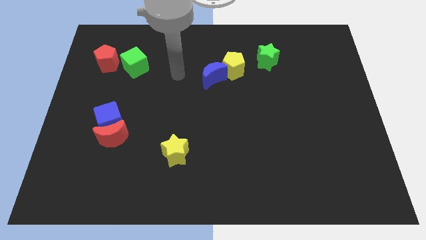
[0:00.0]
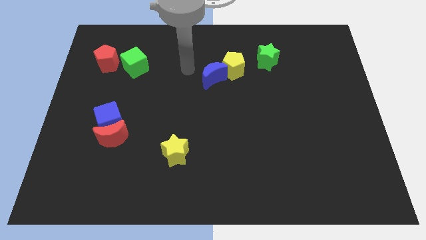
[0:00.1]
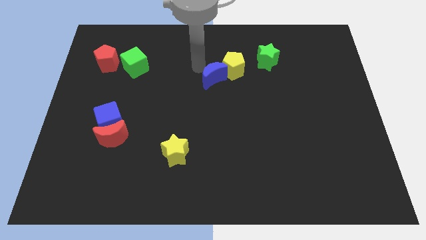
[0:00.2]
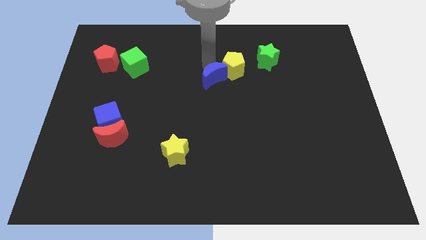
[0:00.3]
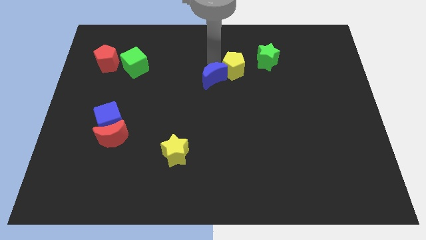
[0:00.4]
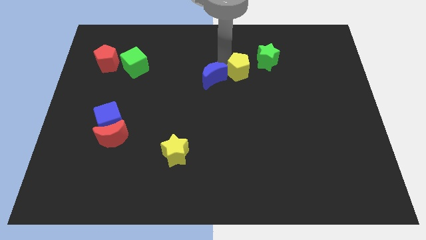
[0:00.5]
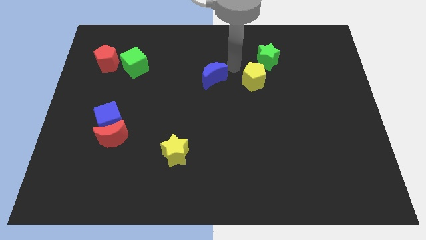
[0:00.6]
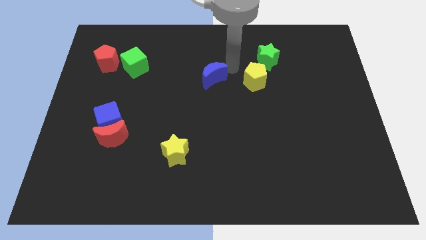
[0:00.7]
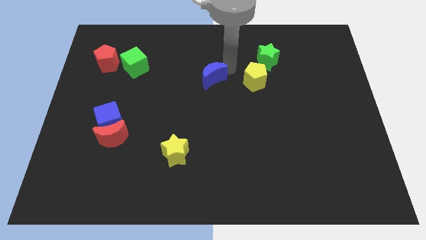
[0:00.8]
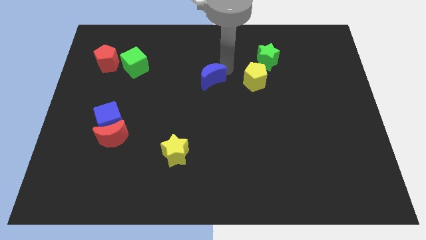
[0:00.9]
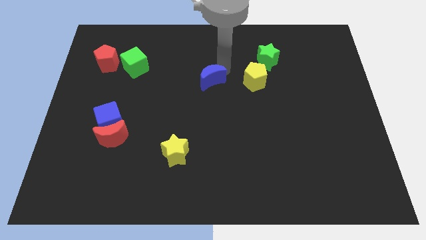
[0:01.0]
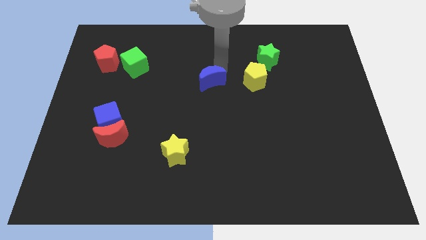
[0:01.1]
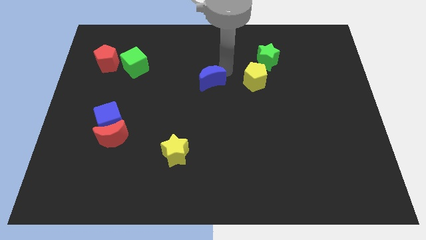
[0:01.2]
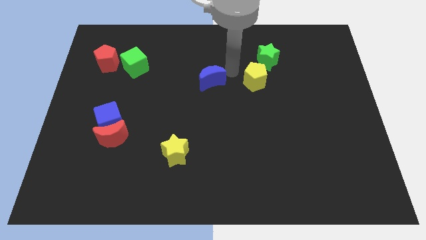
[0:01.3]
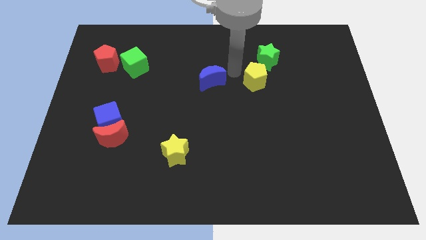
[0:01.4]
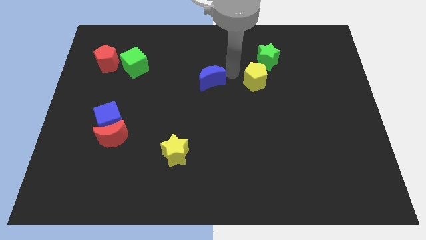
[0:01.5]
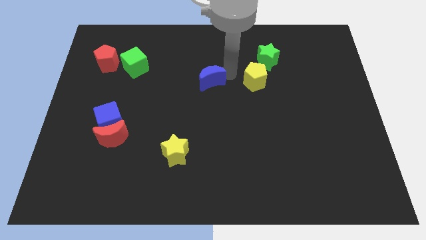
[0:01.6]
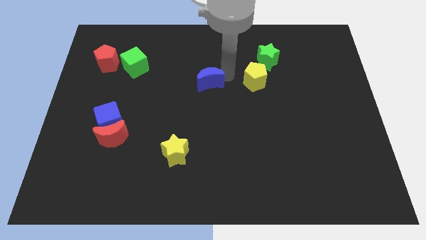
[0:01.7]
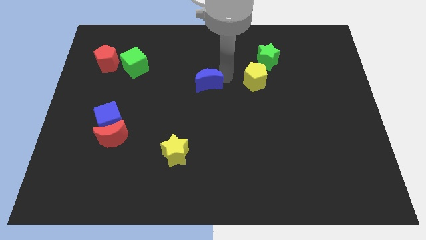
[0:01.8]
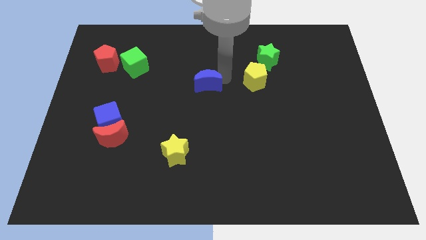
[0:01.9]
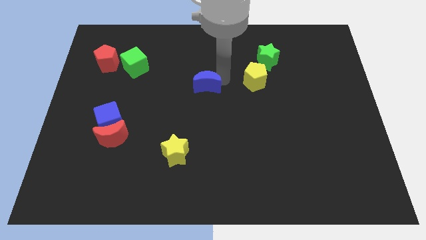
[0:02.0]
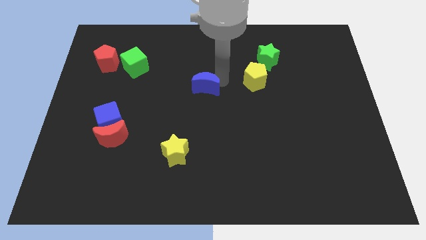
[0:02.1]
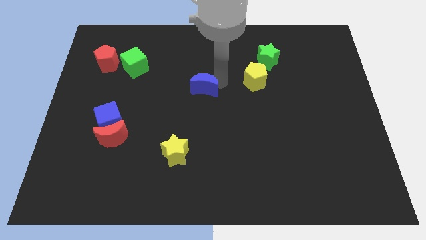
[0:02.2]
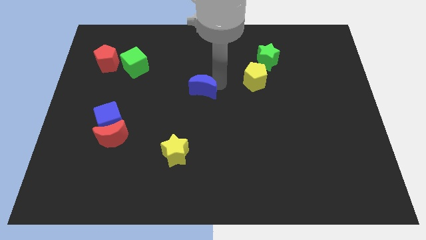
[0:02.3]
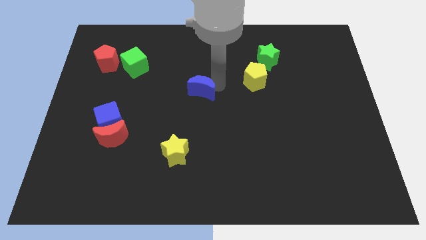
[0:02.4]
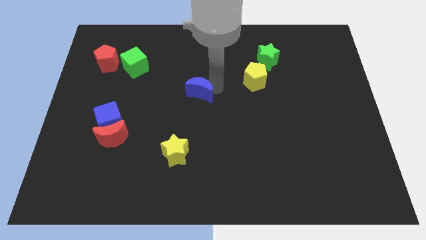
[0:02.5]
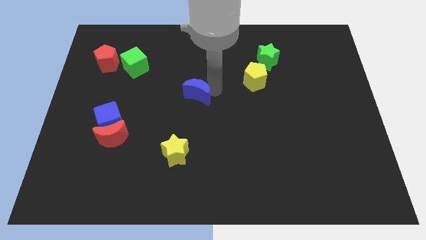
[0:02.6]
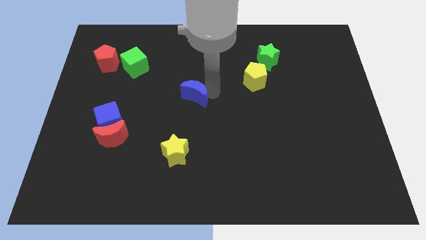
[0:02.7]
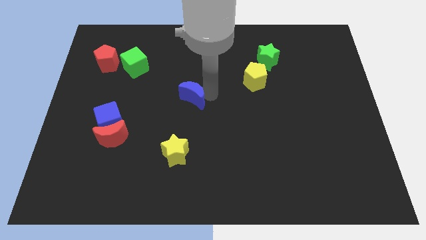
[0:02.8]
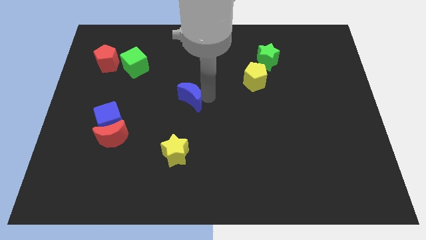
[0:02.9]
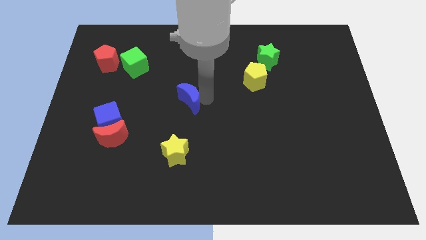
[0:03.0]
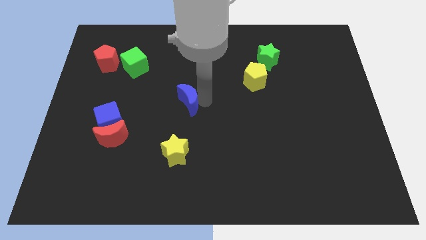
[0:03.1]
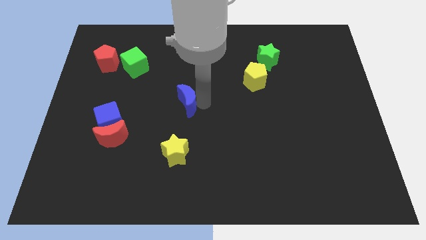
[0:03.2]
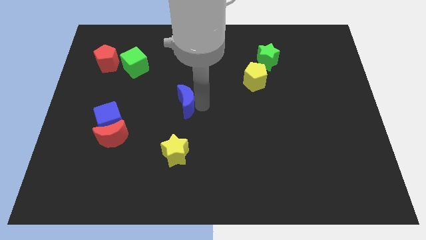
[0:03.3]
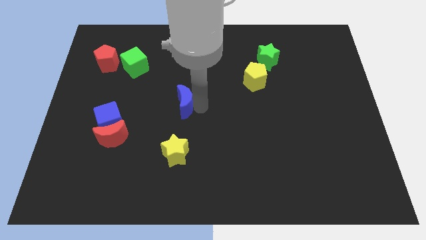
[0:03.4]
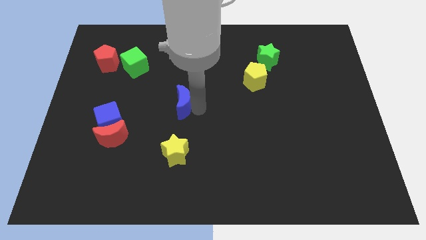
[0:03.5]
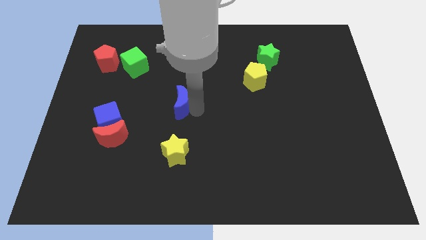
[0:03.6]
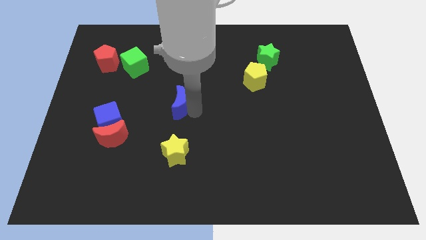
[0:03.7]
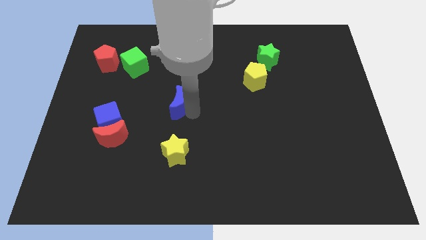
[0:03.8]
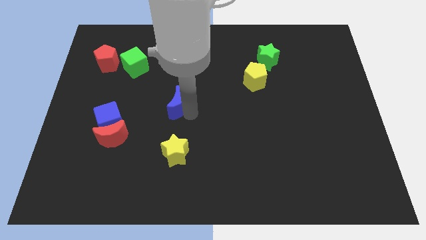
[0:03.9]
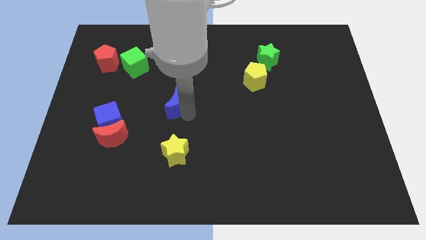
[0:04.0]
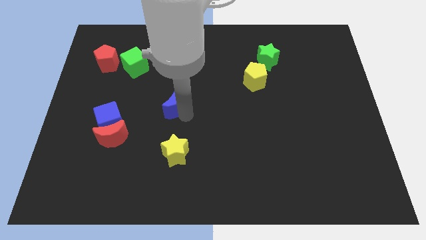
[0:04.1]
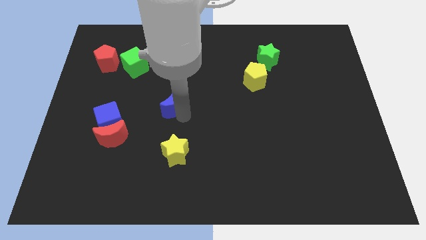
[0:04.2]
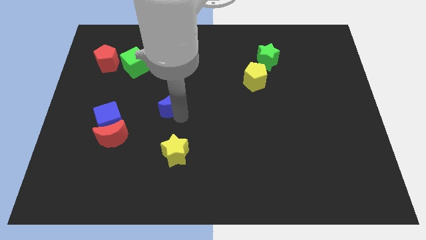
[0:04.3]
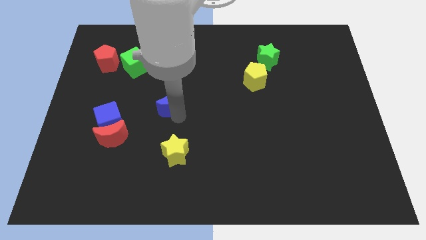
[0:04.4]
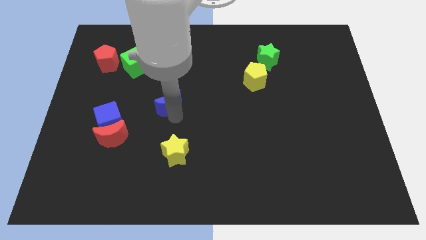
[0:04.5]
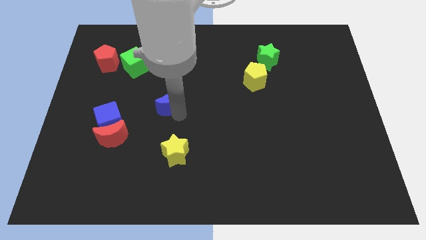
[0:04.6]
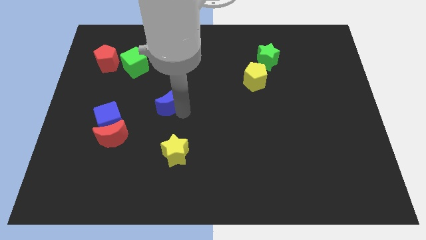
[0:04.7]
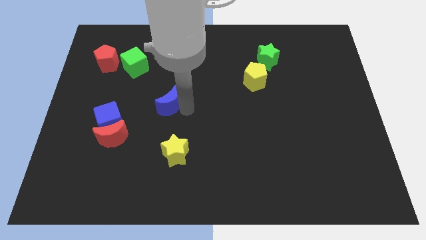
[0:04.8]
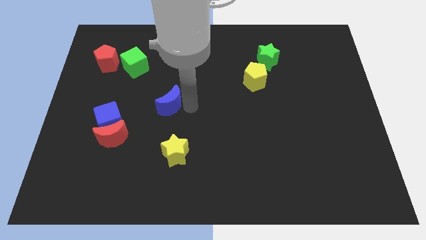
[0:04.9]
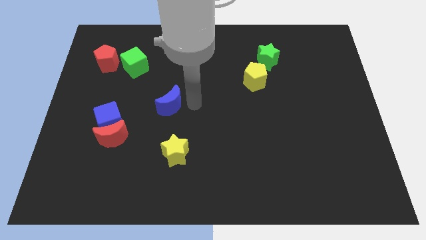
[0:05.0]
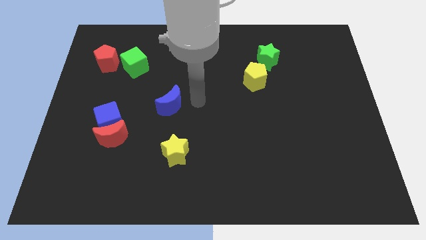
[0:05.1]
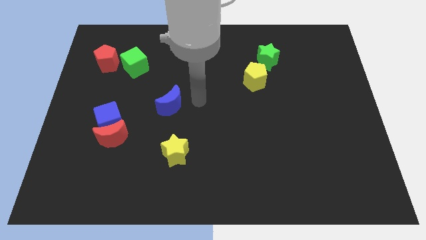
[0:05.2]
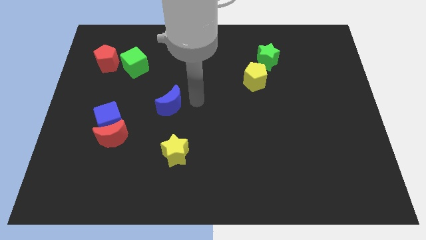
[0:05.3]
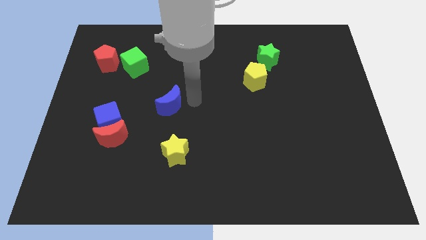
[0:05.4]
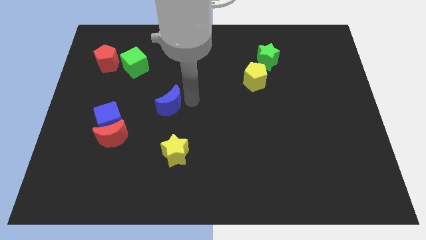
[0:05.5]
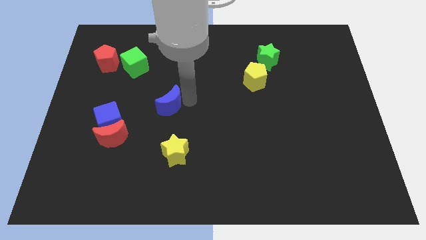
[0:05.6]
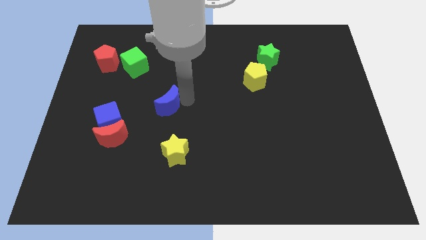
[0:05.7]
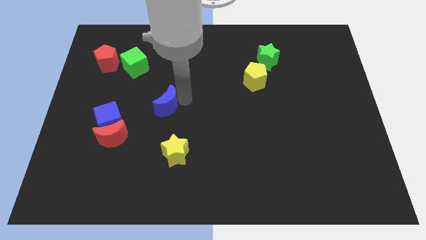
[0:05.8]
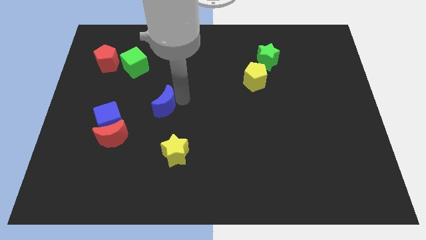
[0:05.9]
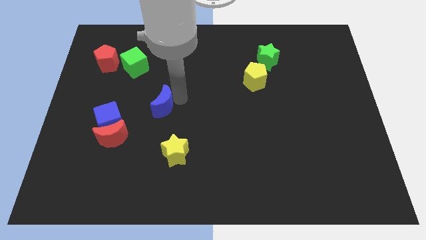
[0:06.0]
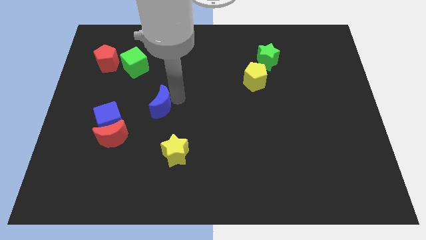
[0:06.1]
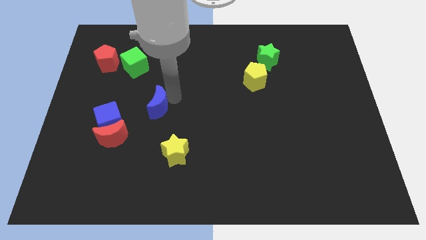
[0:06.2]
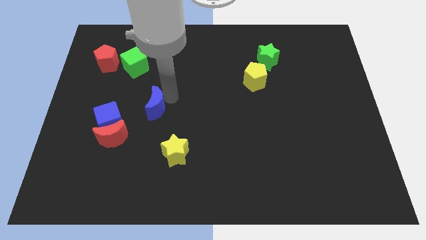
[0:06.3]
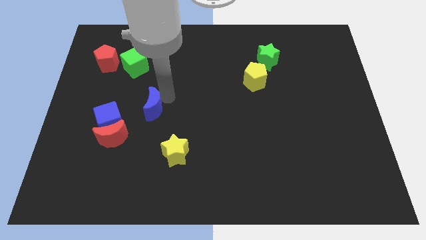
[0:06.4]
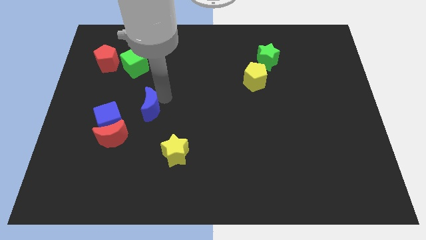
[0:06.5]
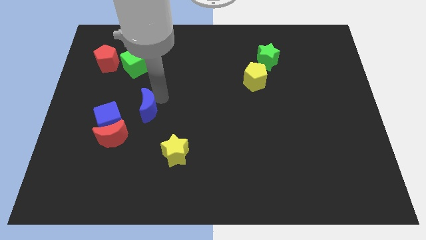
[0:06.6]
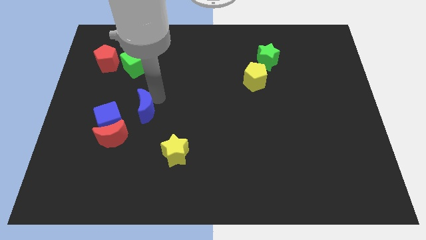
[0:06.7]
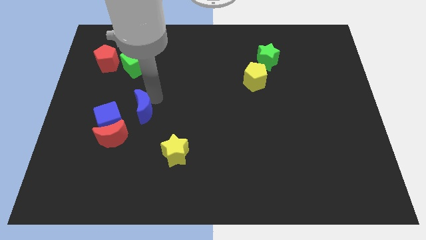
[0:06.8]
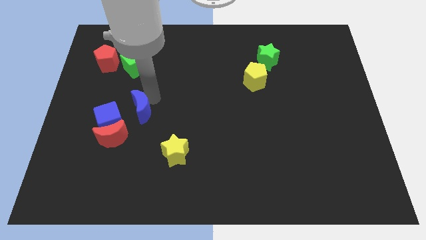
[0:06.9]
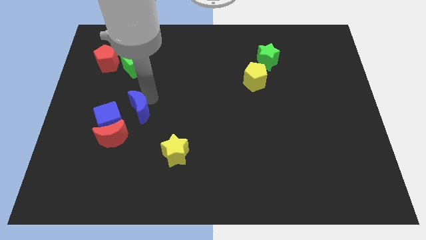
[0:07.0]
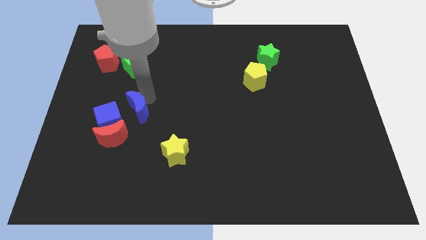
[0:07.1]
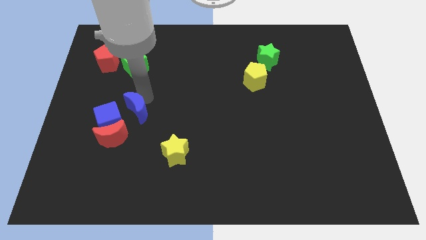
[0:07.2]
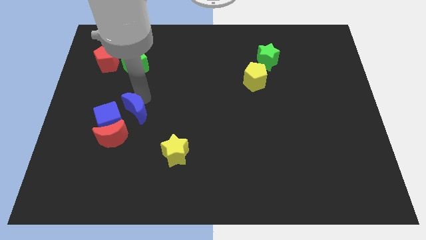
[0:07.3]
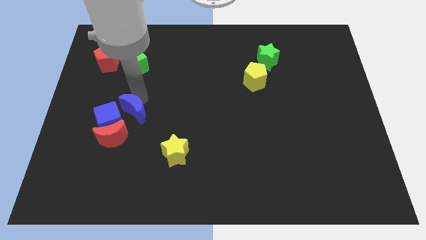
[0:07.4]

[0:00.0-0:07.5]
push the blue moon next to the blue cube
